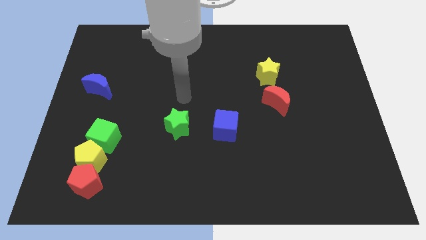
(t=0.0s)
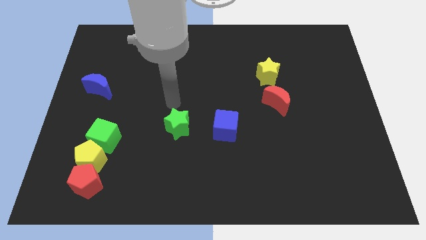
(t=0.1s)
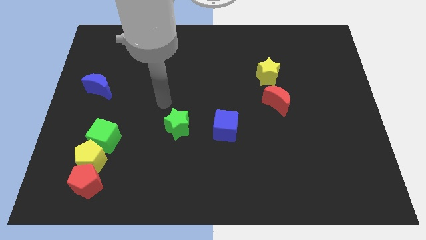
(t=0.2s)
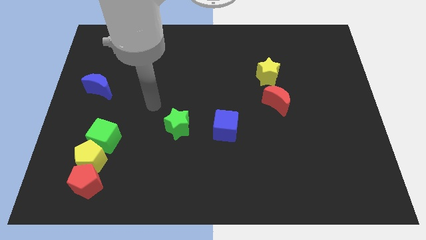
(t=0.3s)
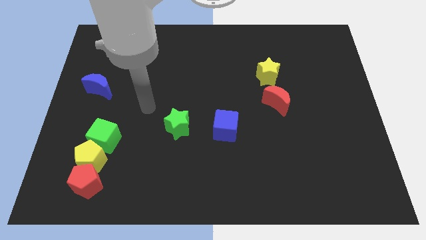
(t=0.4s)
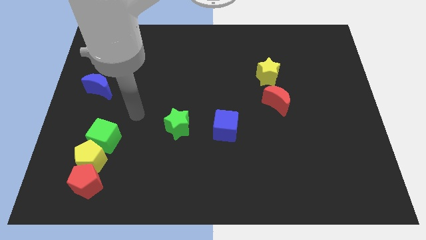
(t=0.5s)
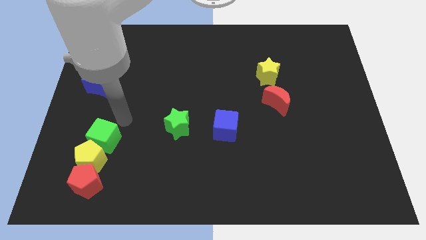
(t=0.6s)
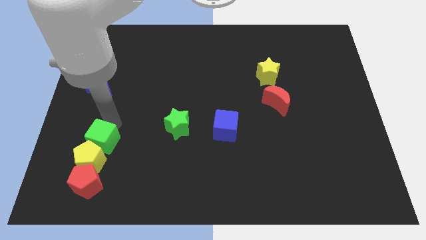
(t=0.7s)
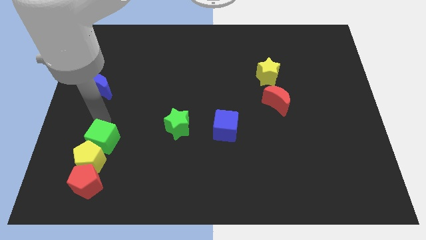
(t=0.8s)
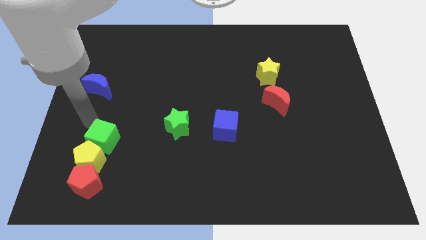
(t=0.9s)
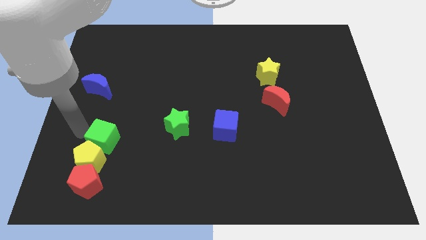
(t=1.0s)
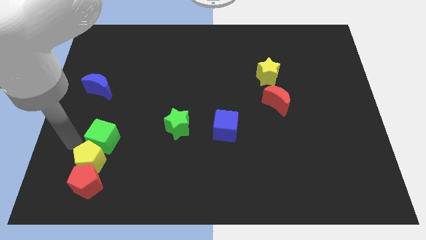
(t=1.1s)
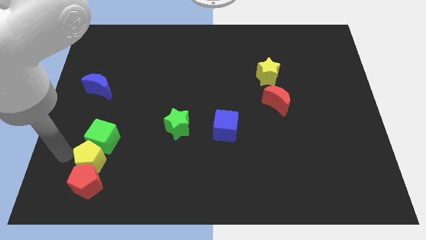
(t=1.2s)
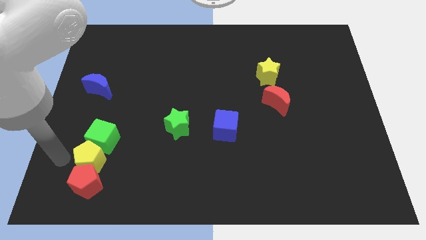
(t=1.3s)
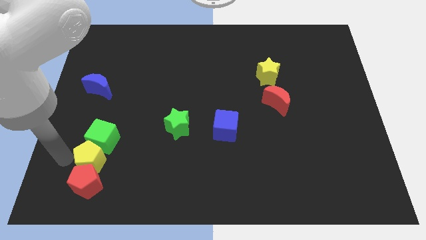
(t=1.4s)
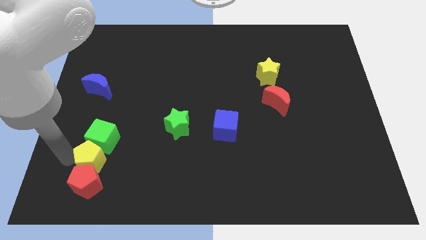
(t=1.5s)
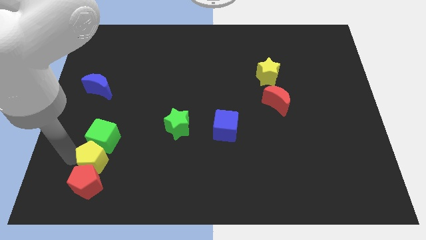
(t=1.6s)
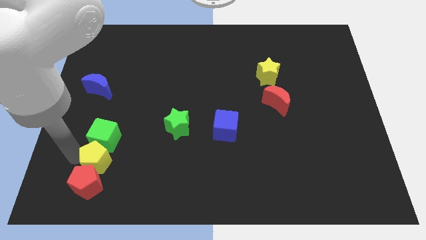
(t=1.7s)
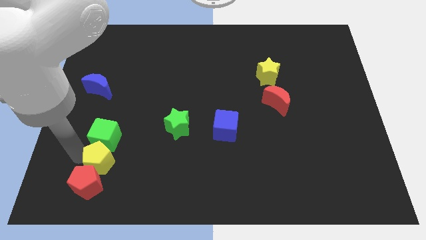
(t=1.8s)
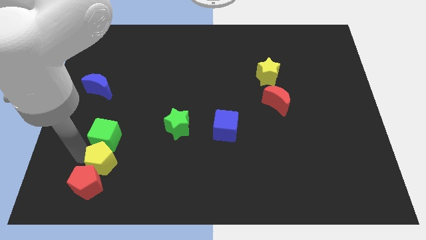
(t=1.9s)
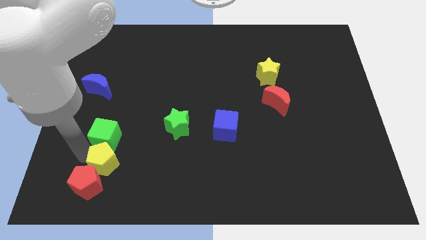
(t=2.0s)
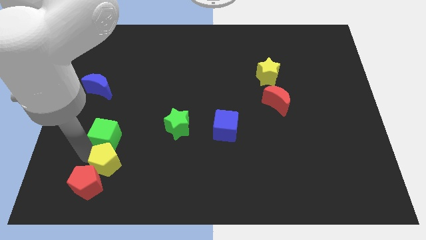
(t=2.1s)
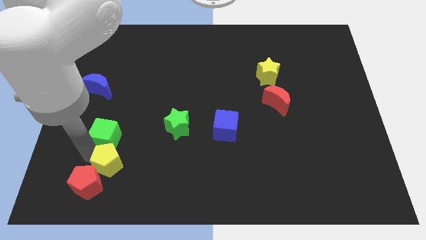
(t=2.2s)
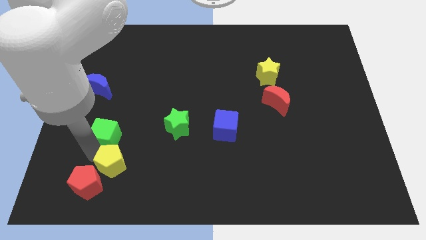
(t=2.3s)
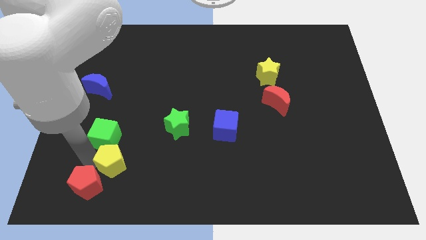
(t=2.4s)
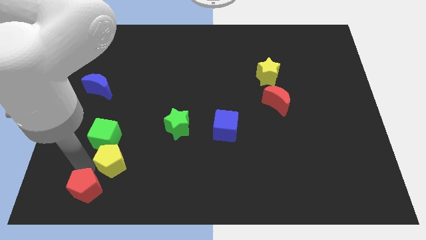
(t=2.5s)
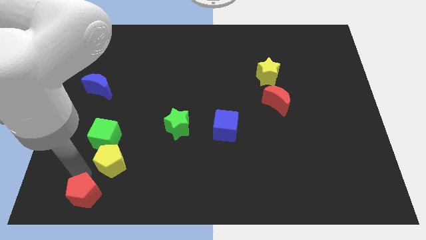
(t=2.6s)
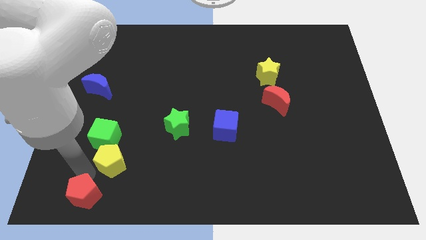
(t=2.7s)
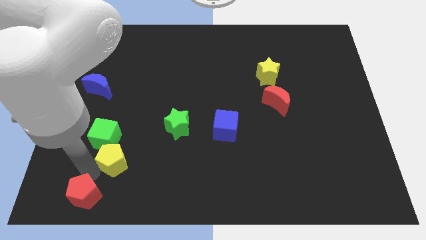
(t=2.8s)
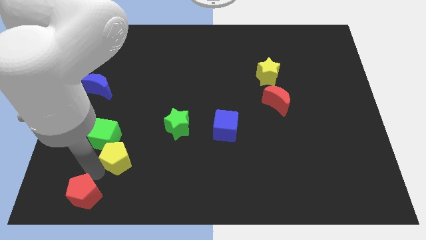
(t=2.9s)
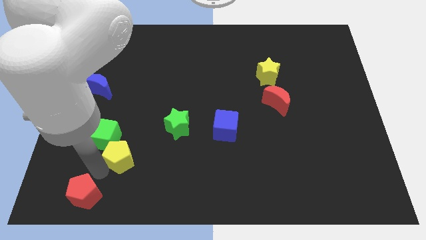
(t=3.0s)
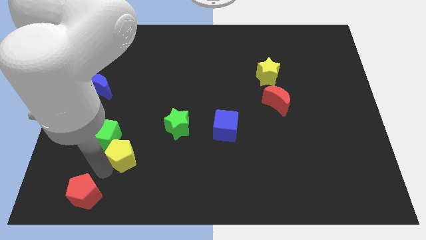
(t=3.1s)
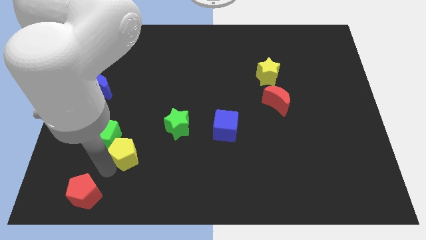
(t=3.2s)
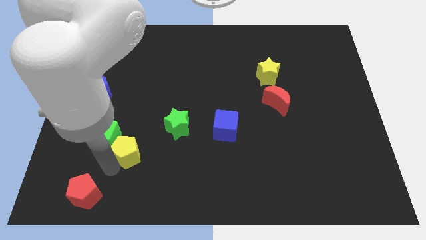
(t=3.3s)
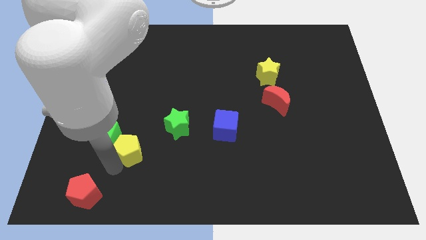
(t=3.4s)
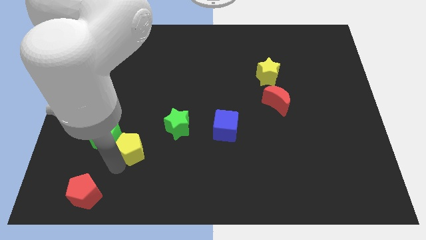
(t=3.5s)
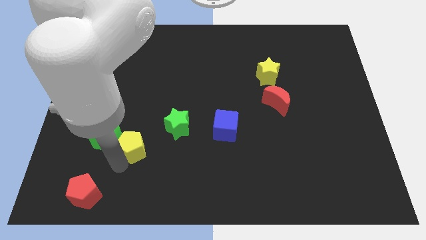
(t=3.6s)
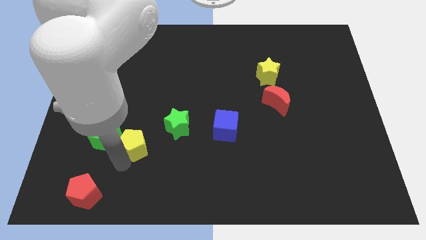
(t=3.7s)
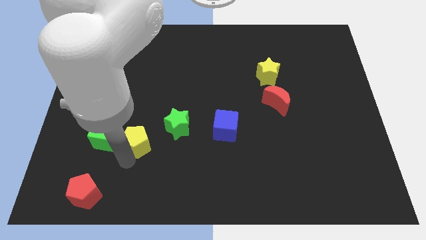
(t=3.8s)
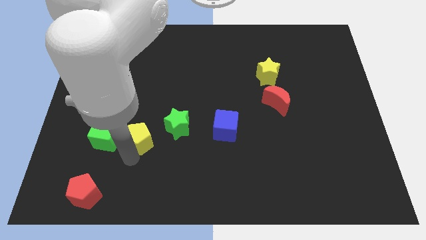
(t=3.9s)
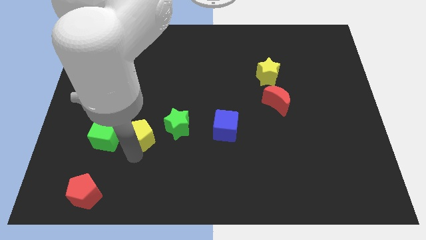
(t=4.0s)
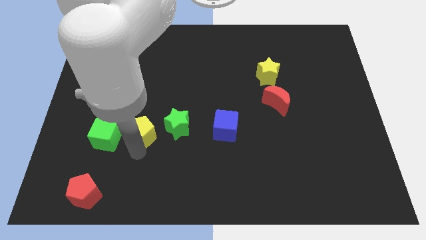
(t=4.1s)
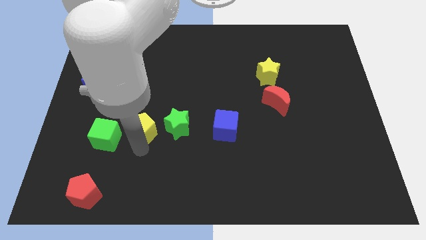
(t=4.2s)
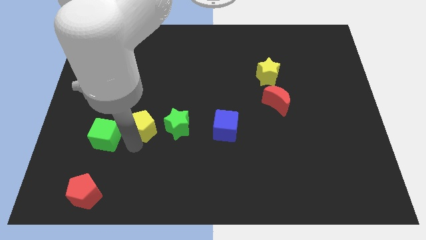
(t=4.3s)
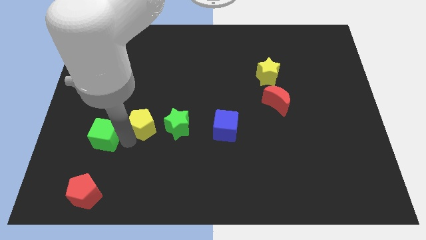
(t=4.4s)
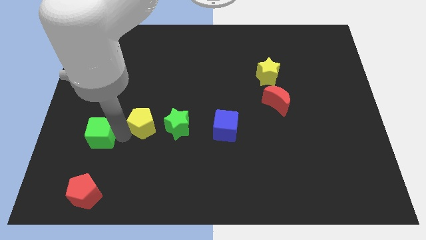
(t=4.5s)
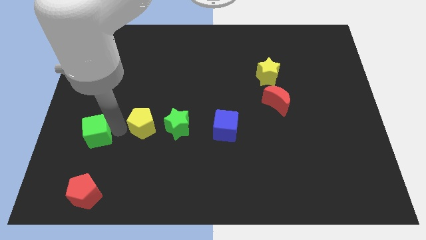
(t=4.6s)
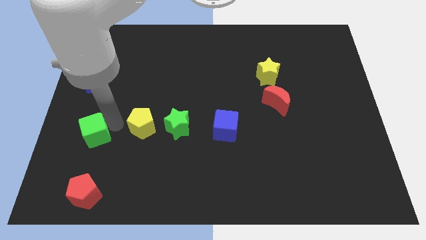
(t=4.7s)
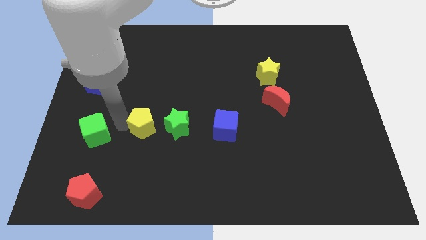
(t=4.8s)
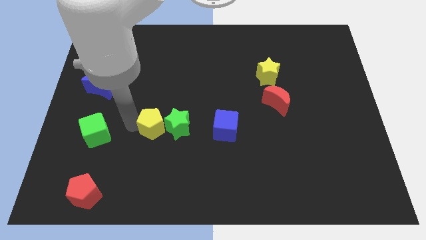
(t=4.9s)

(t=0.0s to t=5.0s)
slide the yellow pentagon close to the green star

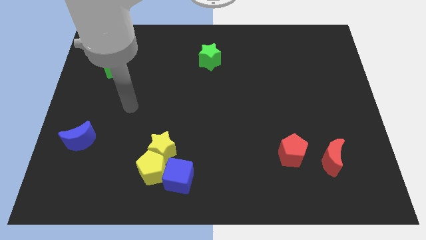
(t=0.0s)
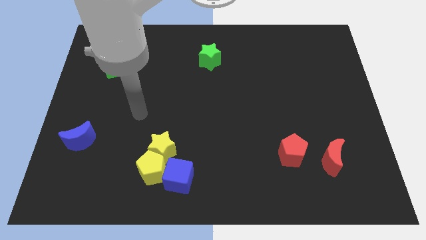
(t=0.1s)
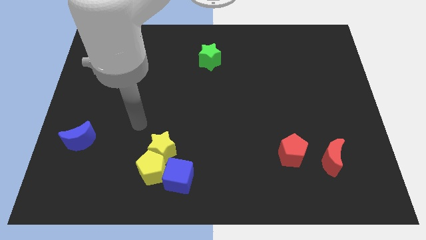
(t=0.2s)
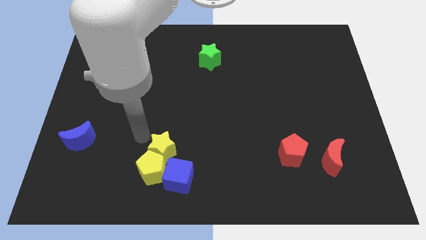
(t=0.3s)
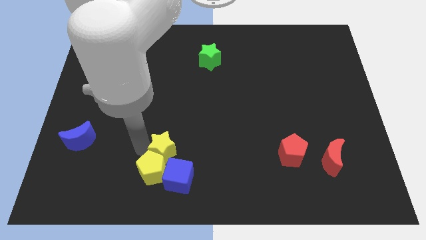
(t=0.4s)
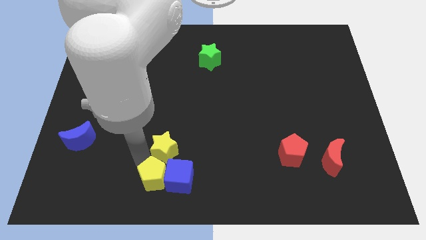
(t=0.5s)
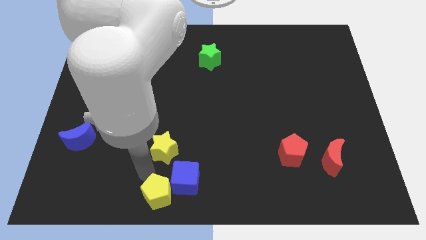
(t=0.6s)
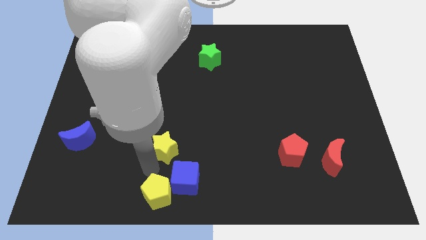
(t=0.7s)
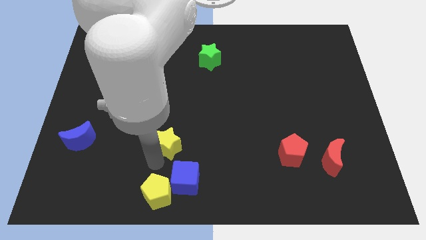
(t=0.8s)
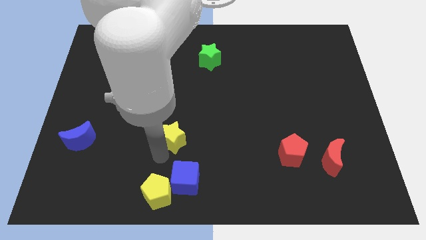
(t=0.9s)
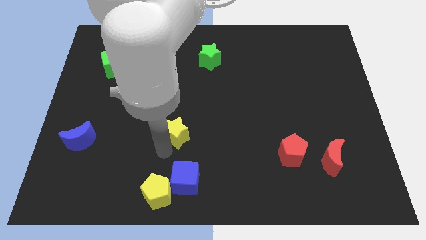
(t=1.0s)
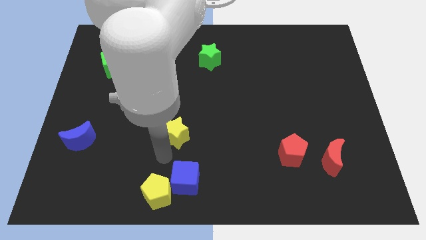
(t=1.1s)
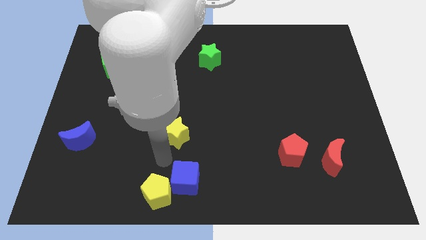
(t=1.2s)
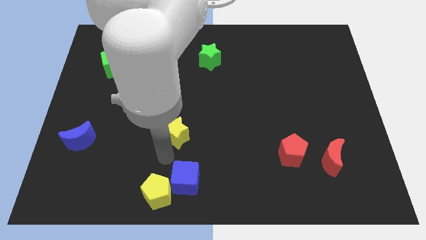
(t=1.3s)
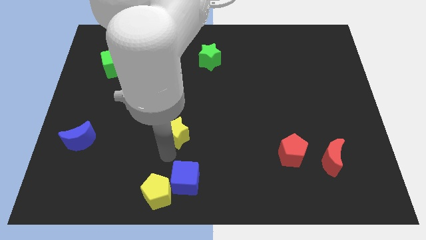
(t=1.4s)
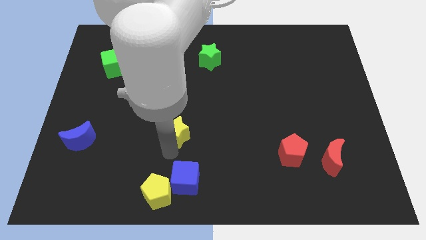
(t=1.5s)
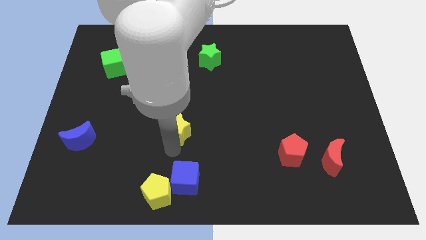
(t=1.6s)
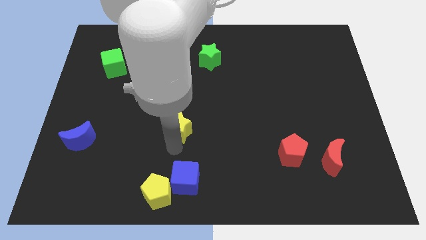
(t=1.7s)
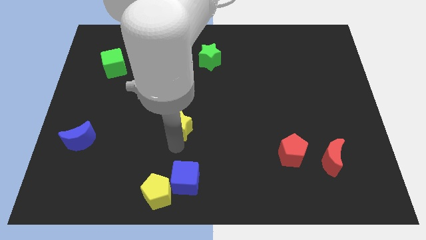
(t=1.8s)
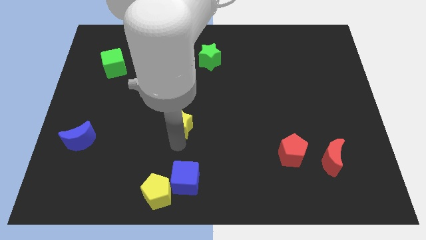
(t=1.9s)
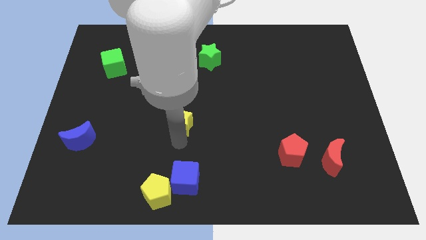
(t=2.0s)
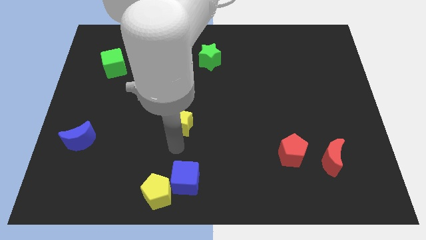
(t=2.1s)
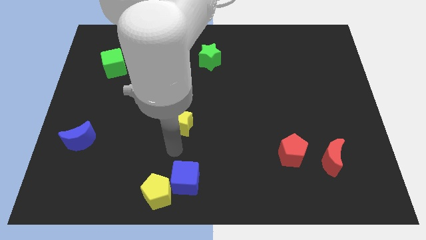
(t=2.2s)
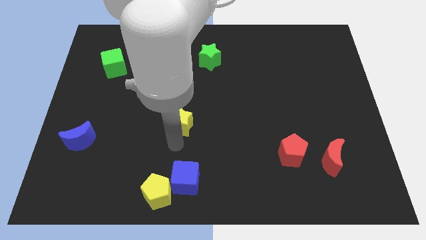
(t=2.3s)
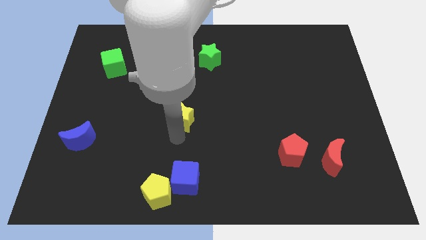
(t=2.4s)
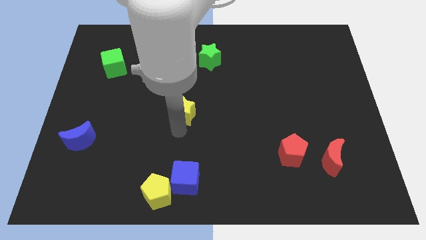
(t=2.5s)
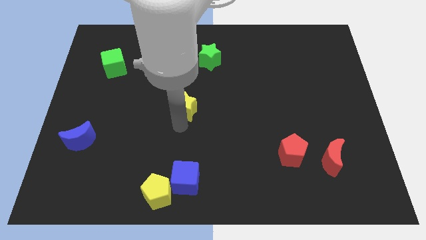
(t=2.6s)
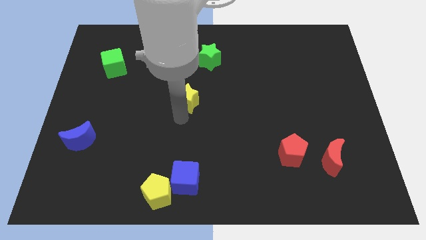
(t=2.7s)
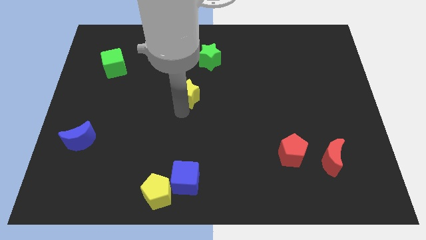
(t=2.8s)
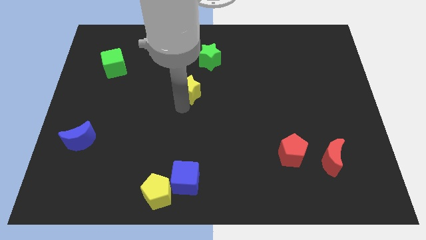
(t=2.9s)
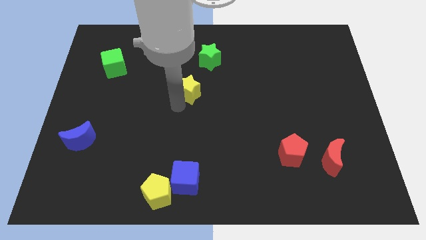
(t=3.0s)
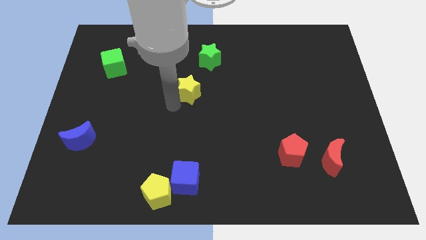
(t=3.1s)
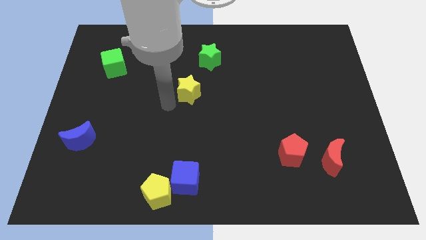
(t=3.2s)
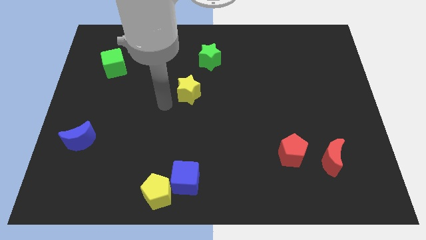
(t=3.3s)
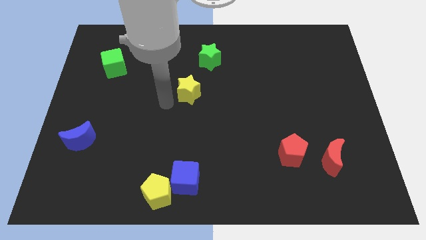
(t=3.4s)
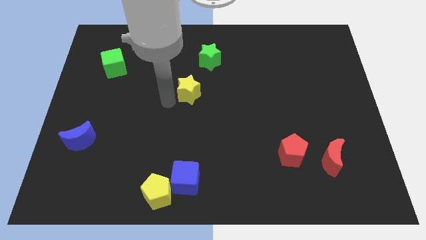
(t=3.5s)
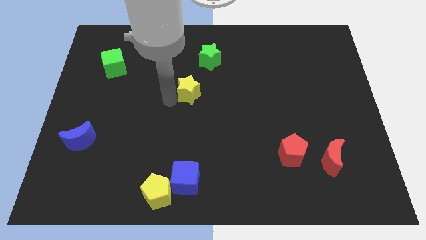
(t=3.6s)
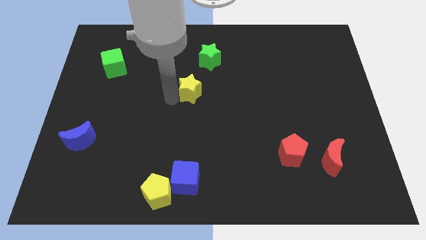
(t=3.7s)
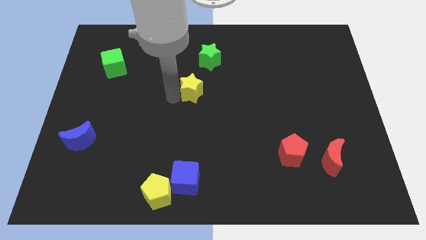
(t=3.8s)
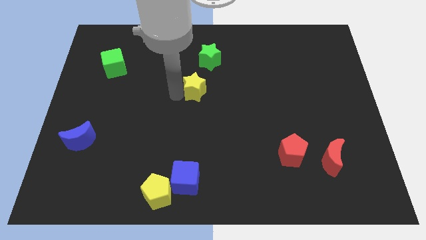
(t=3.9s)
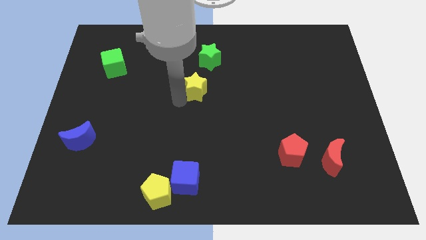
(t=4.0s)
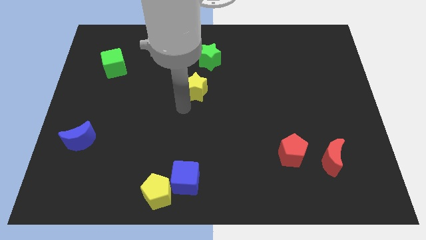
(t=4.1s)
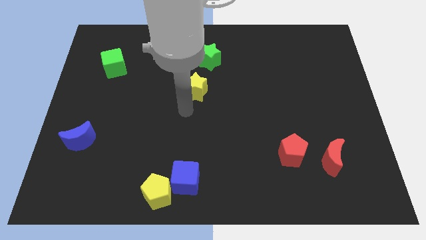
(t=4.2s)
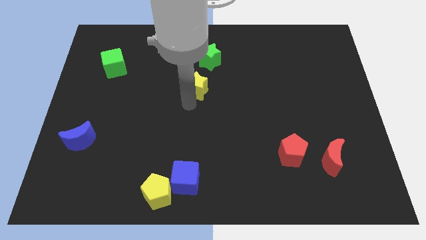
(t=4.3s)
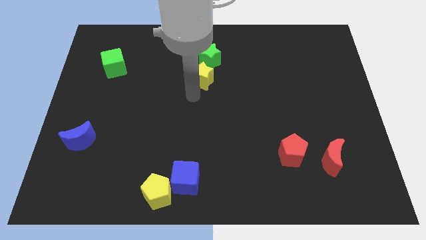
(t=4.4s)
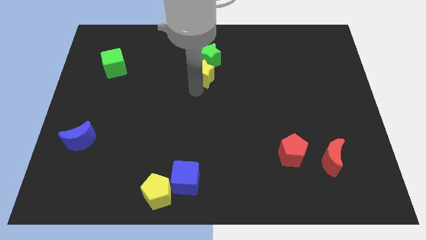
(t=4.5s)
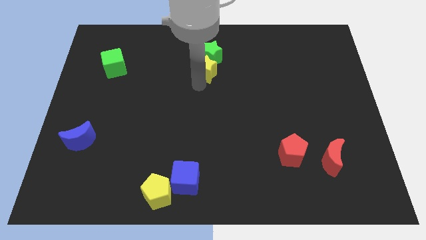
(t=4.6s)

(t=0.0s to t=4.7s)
push the yellow star close to the green star
